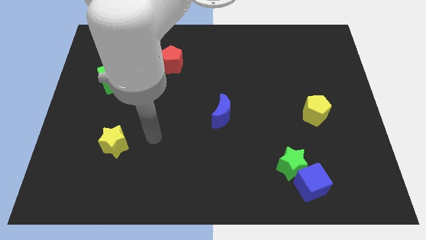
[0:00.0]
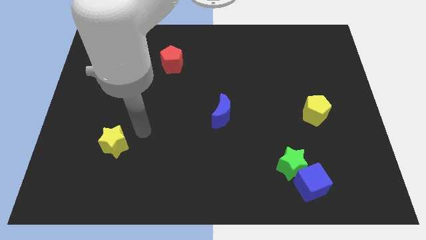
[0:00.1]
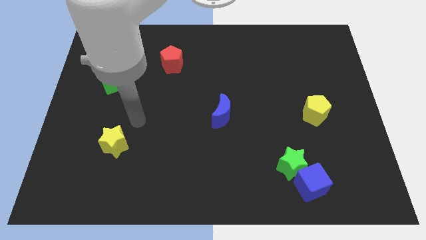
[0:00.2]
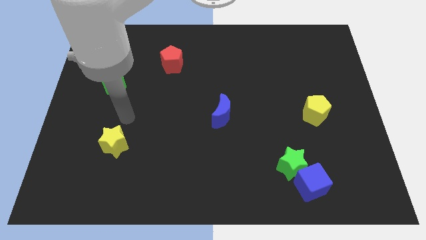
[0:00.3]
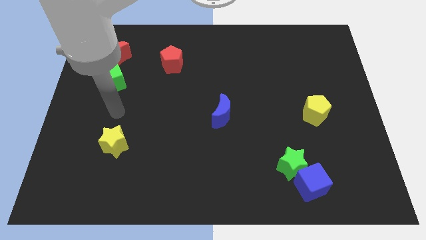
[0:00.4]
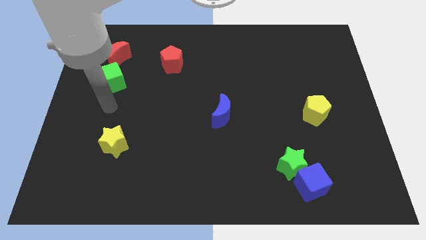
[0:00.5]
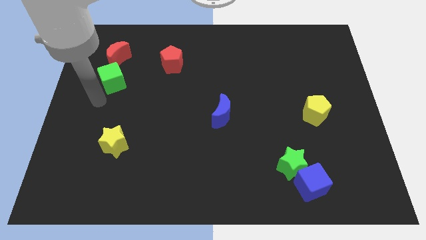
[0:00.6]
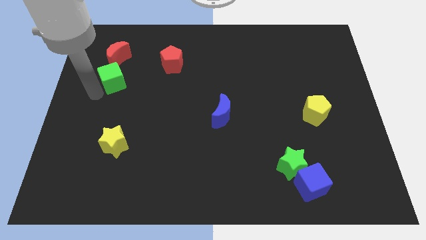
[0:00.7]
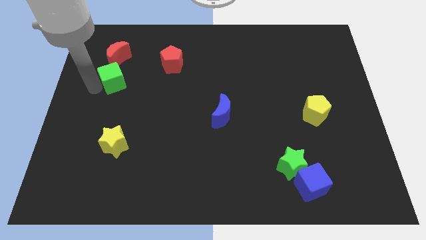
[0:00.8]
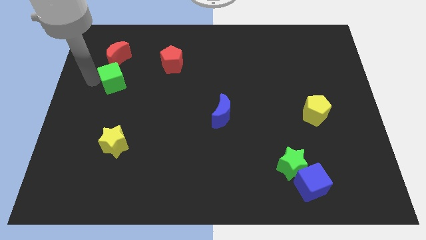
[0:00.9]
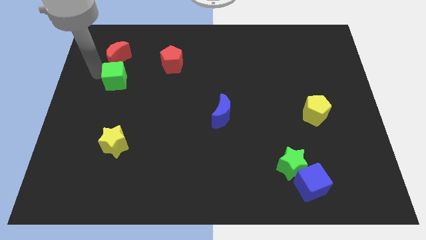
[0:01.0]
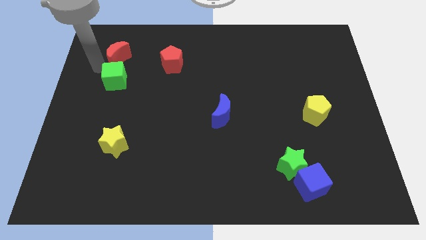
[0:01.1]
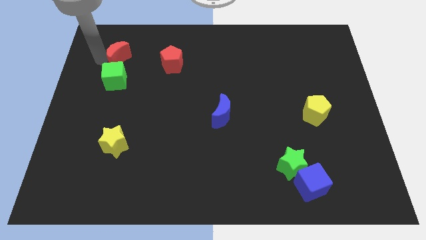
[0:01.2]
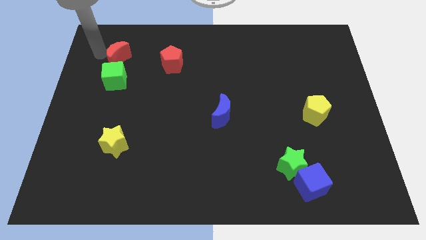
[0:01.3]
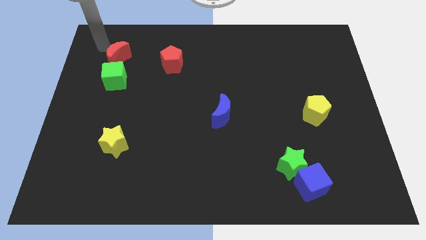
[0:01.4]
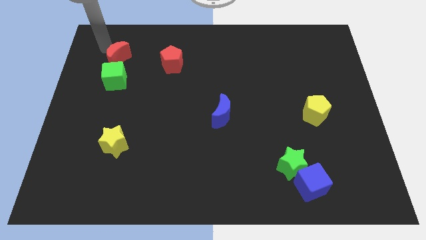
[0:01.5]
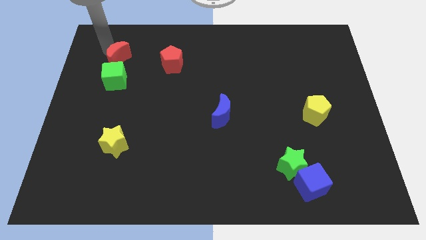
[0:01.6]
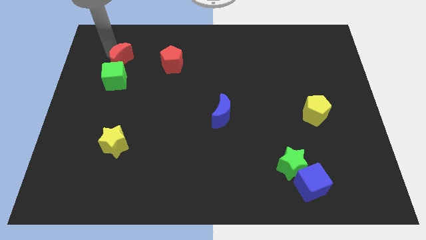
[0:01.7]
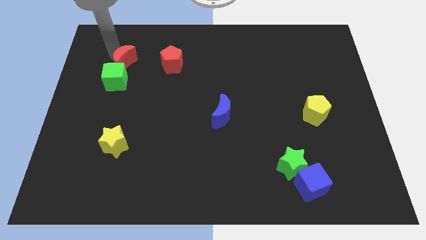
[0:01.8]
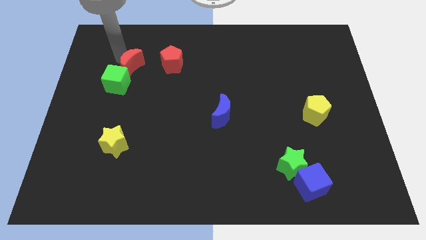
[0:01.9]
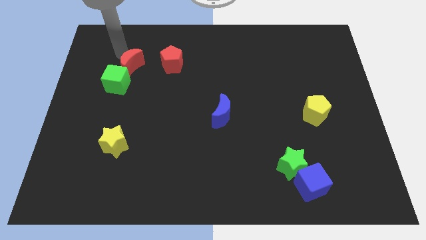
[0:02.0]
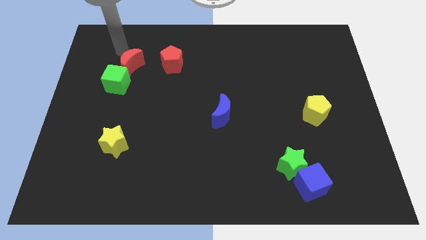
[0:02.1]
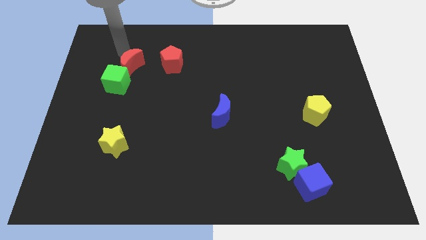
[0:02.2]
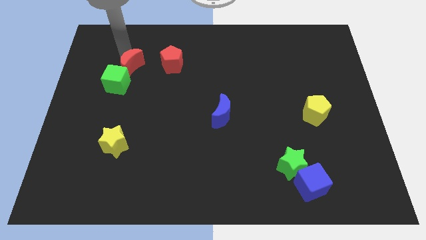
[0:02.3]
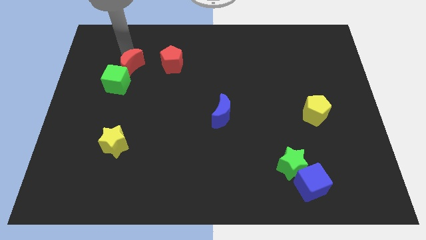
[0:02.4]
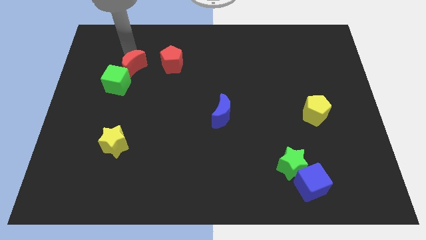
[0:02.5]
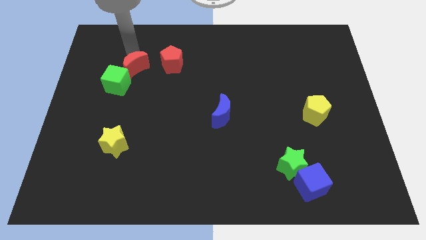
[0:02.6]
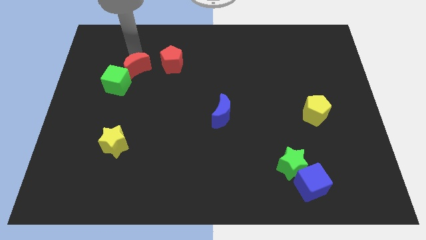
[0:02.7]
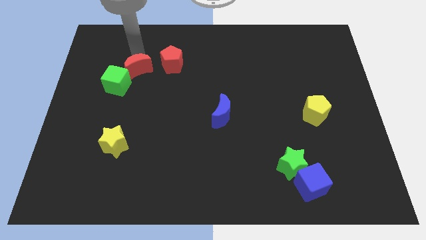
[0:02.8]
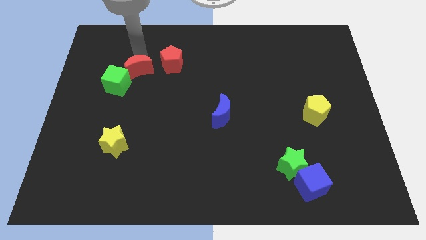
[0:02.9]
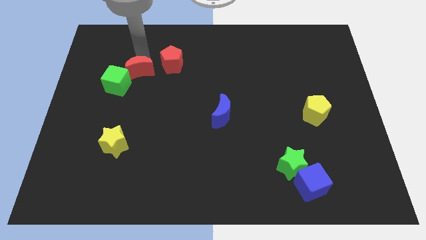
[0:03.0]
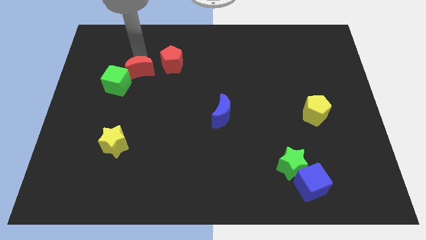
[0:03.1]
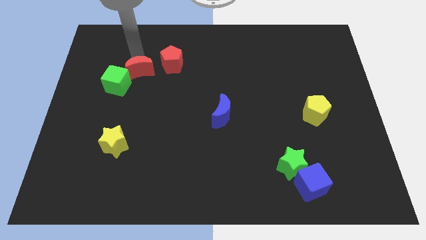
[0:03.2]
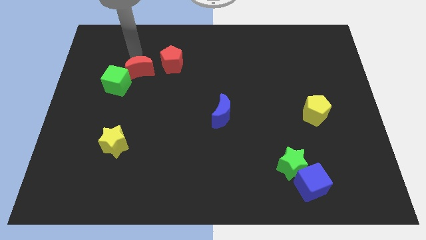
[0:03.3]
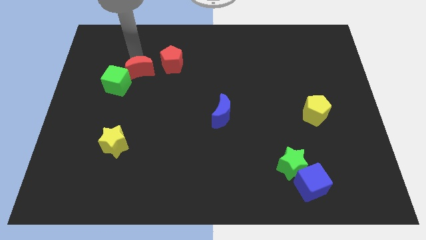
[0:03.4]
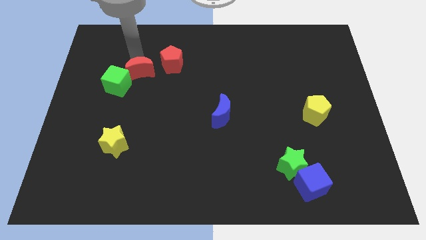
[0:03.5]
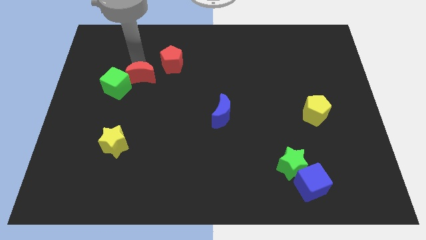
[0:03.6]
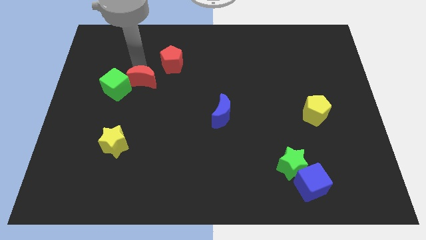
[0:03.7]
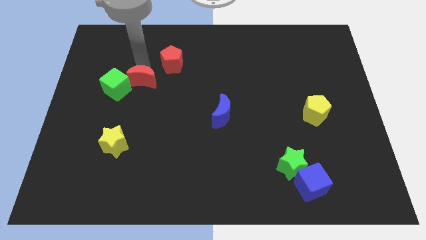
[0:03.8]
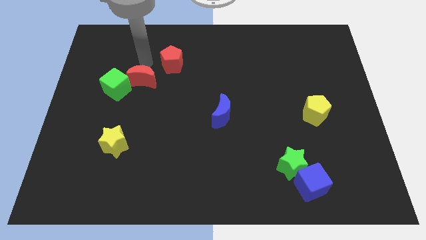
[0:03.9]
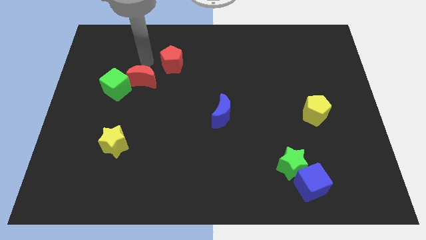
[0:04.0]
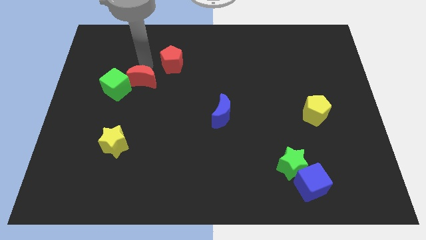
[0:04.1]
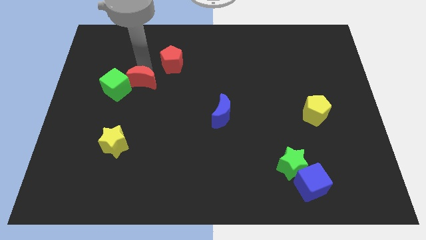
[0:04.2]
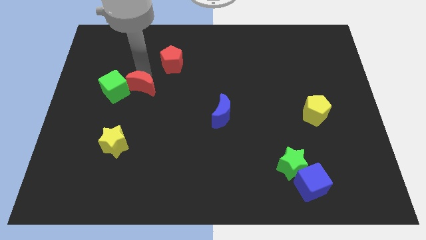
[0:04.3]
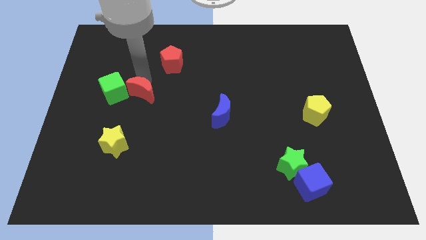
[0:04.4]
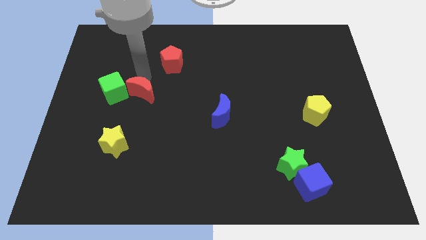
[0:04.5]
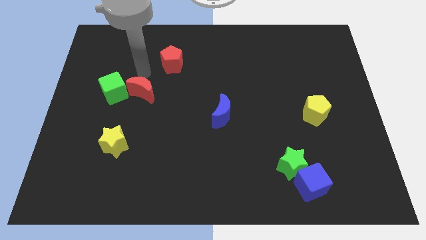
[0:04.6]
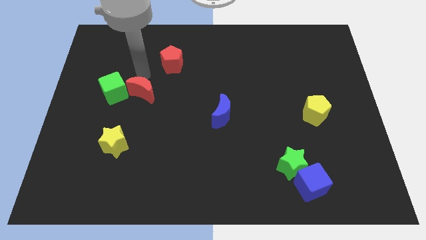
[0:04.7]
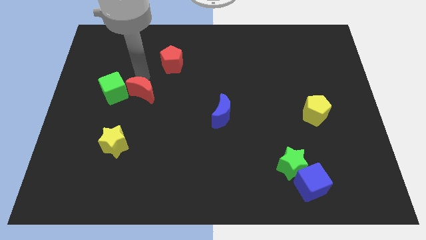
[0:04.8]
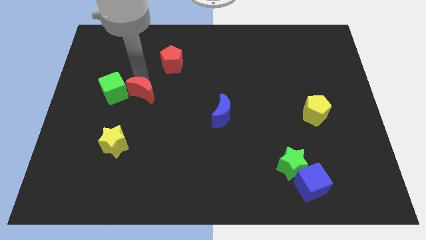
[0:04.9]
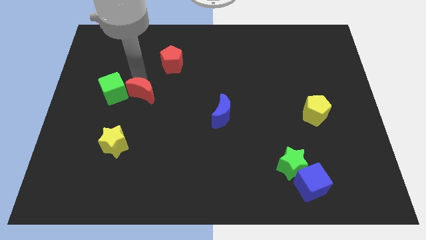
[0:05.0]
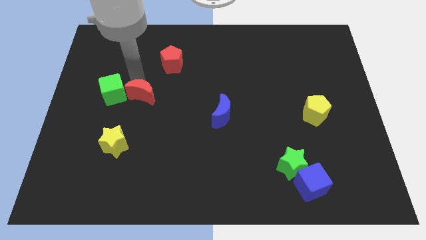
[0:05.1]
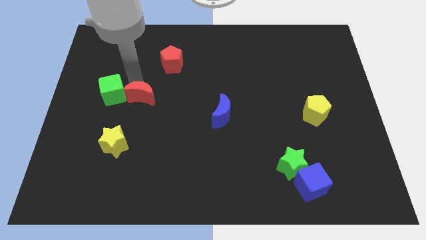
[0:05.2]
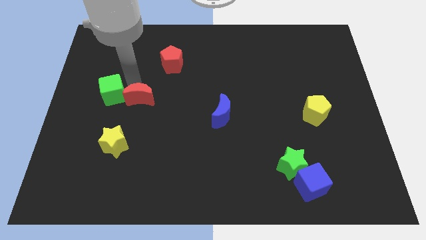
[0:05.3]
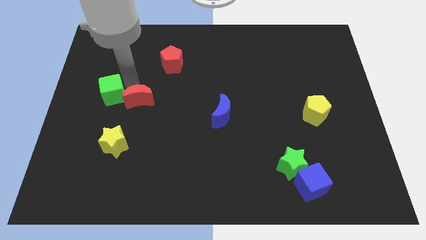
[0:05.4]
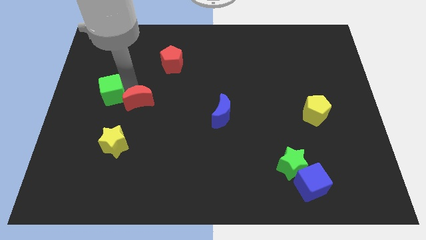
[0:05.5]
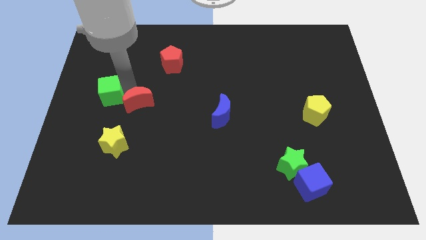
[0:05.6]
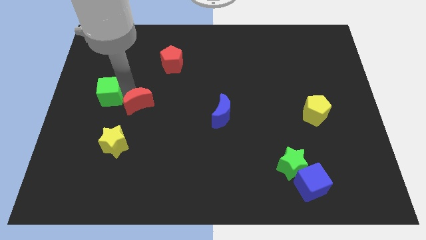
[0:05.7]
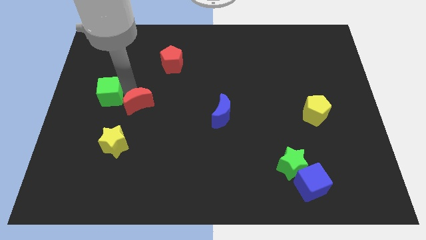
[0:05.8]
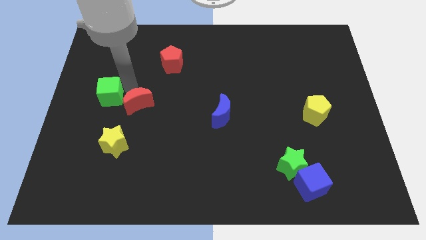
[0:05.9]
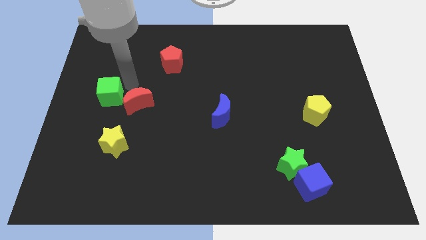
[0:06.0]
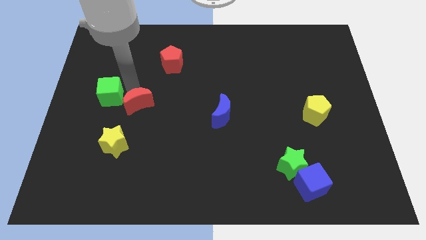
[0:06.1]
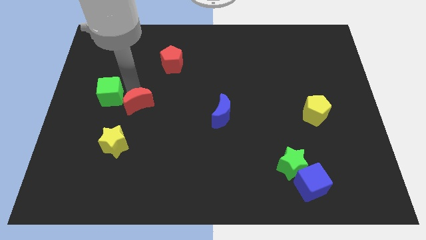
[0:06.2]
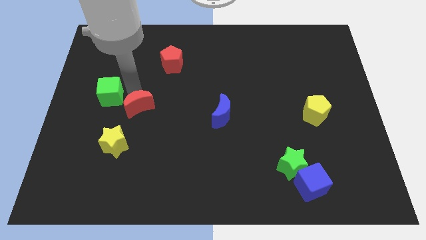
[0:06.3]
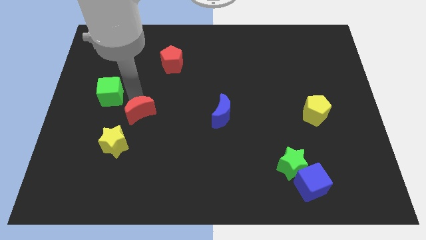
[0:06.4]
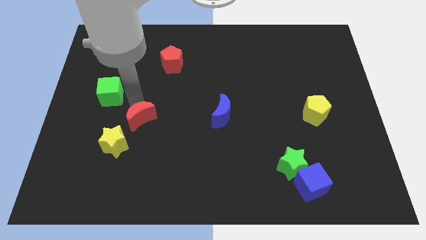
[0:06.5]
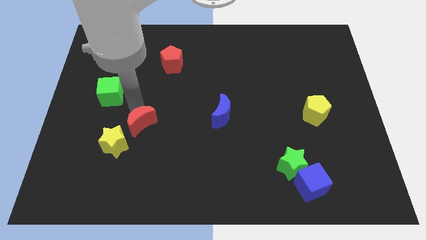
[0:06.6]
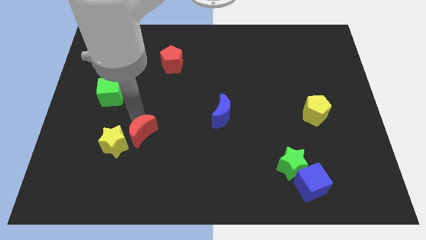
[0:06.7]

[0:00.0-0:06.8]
push the red moon to the right side of the yellow star
